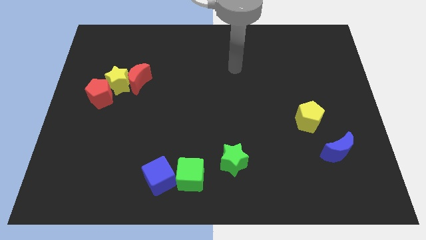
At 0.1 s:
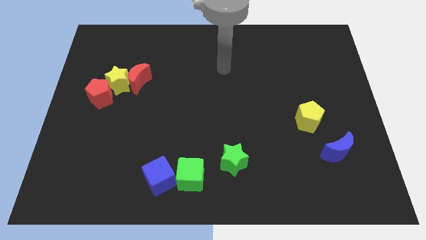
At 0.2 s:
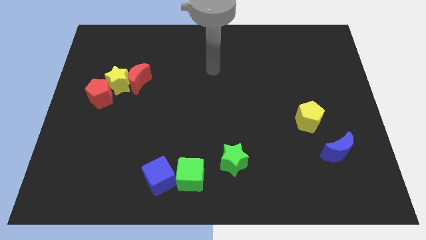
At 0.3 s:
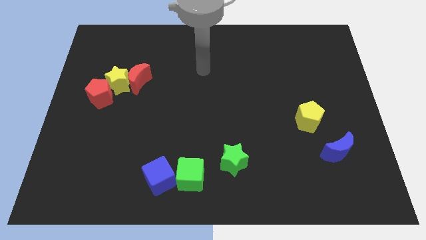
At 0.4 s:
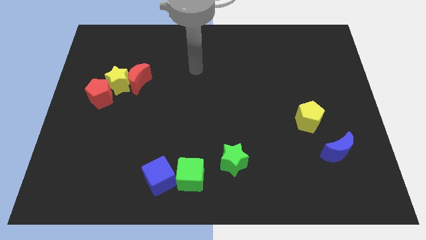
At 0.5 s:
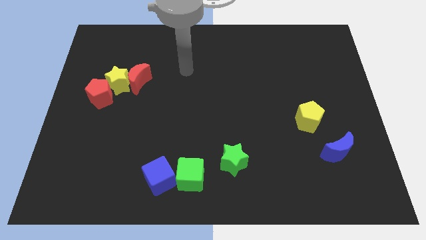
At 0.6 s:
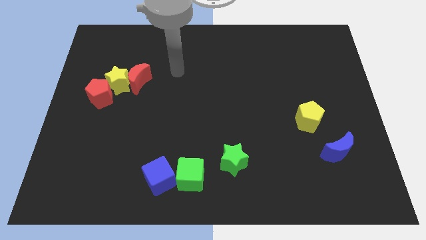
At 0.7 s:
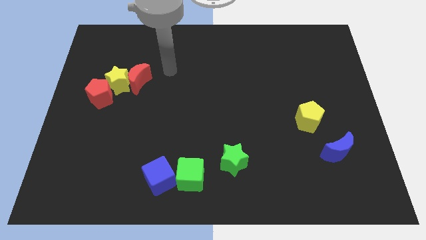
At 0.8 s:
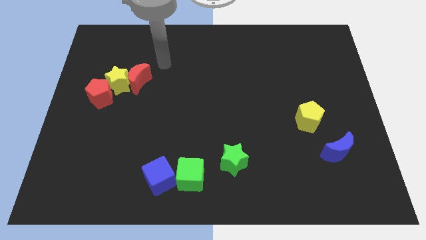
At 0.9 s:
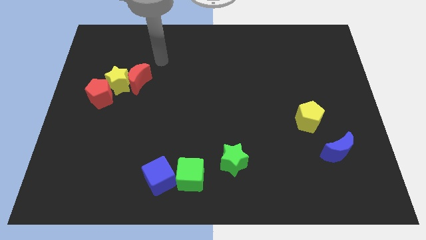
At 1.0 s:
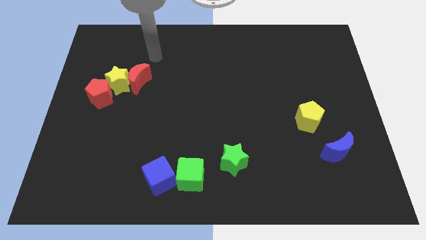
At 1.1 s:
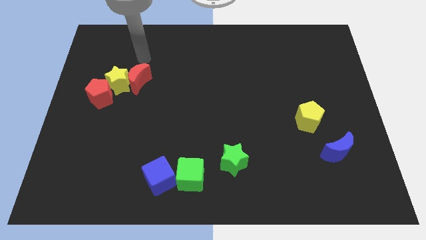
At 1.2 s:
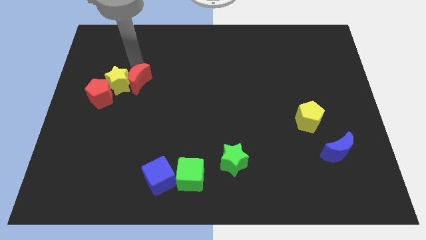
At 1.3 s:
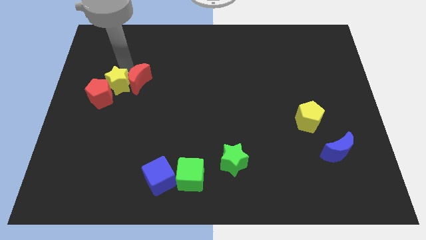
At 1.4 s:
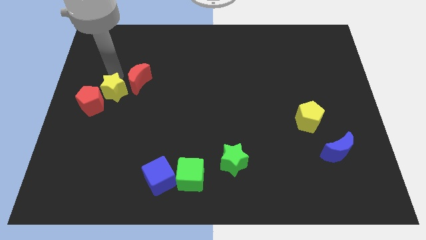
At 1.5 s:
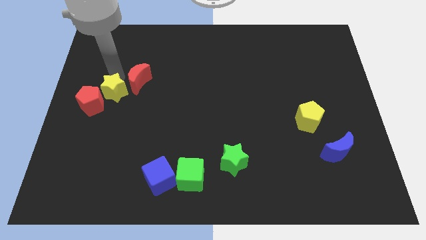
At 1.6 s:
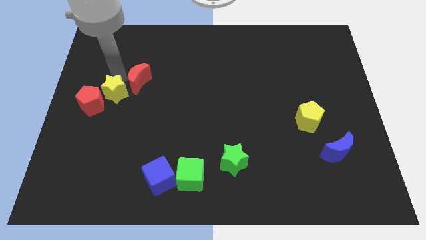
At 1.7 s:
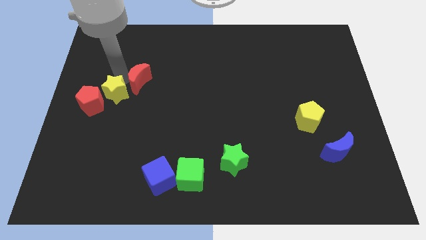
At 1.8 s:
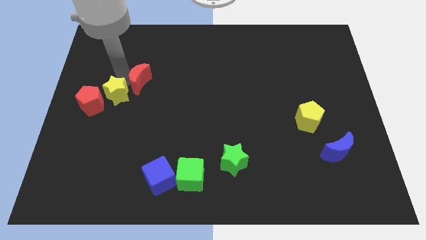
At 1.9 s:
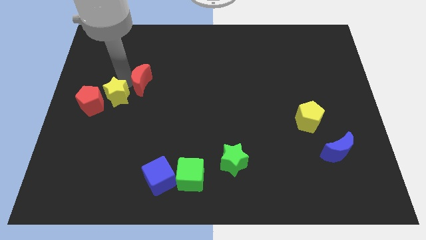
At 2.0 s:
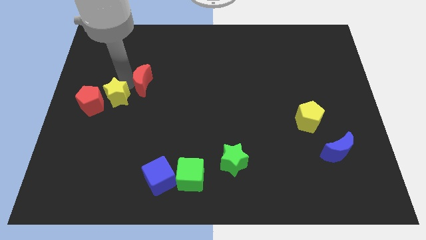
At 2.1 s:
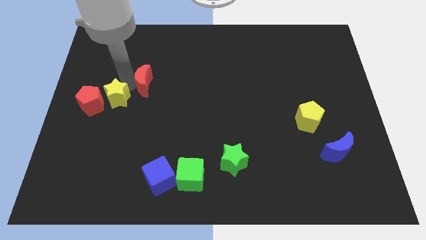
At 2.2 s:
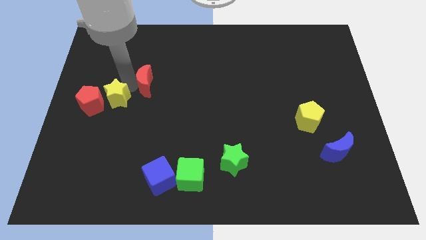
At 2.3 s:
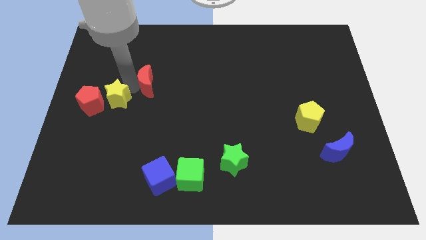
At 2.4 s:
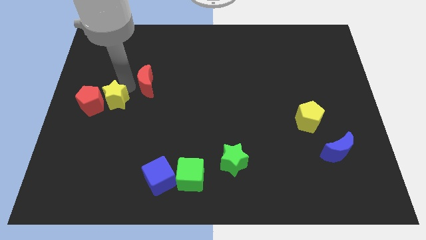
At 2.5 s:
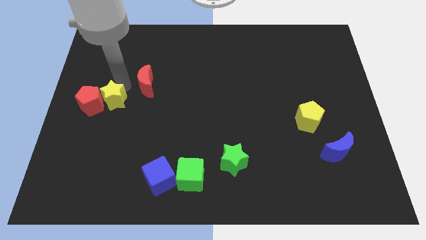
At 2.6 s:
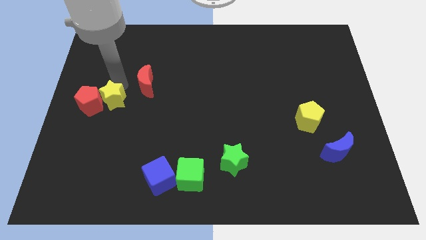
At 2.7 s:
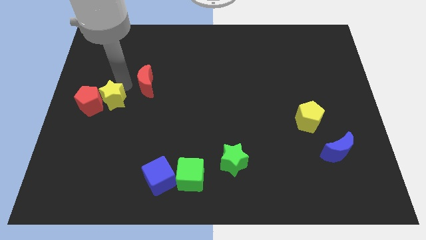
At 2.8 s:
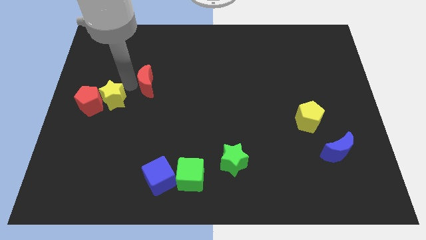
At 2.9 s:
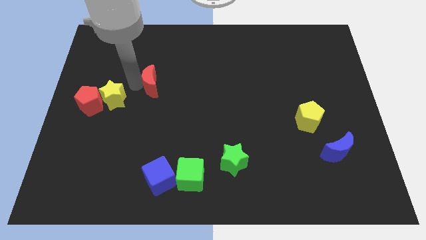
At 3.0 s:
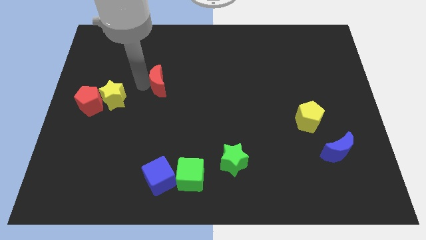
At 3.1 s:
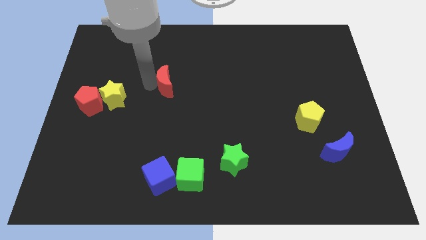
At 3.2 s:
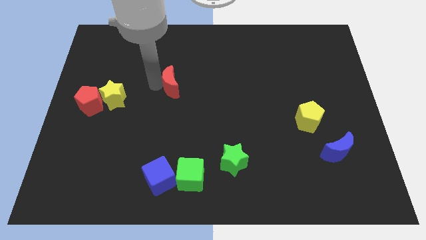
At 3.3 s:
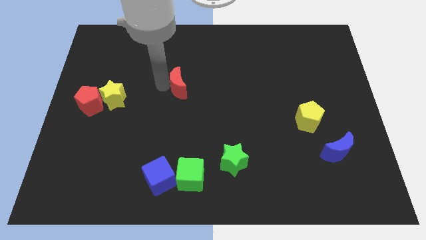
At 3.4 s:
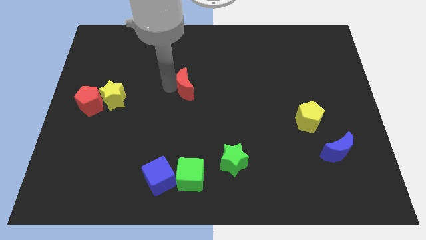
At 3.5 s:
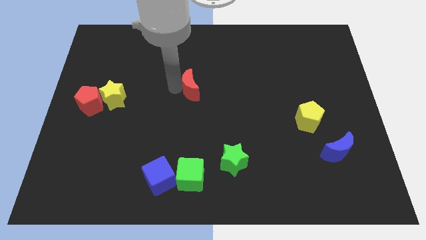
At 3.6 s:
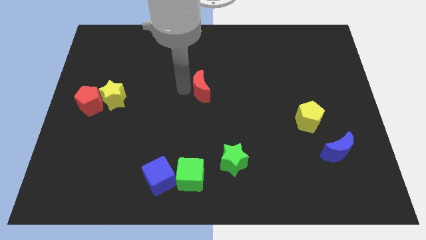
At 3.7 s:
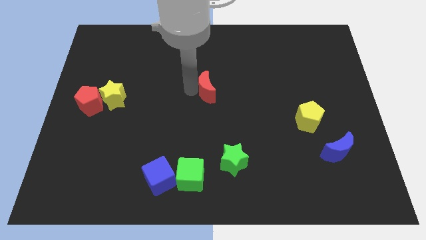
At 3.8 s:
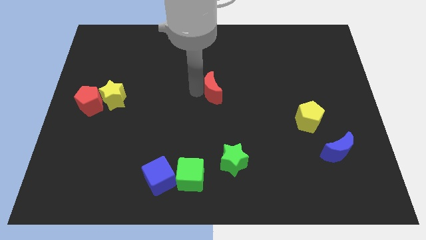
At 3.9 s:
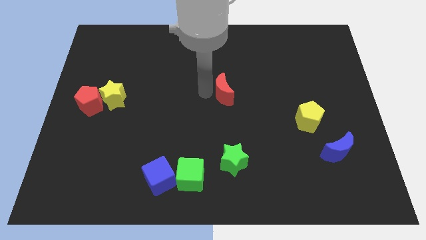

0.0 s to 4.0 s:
push the red moon right

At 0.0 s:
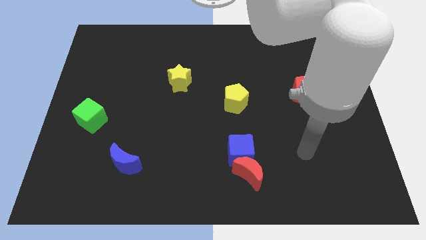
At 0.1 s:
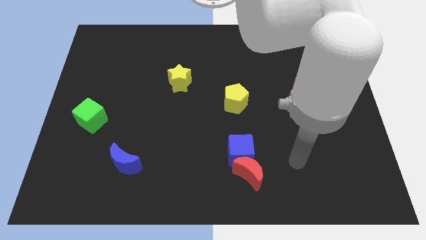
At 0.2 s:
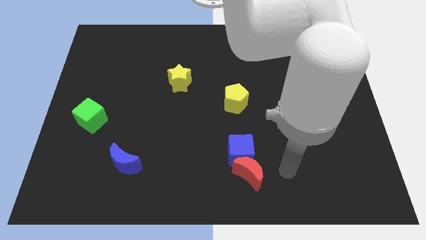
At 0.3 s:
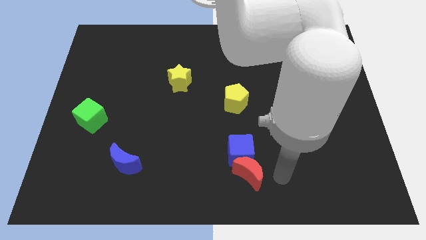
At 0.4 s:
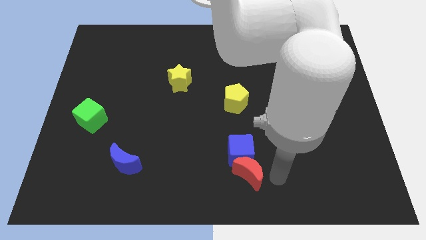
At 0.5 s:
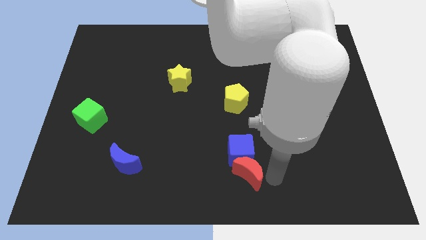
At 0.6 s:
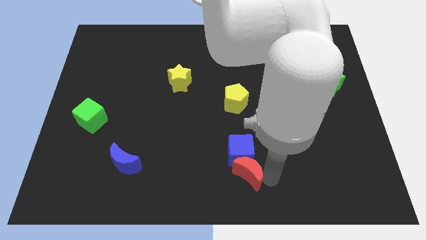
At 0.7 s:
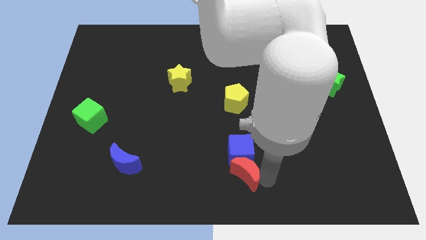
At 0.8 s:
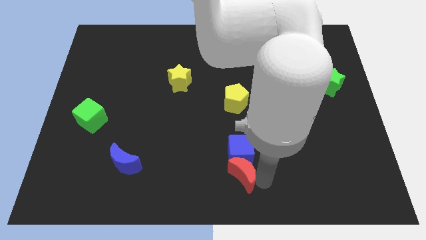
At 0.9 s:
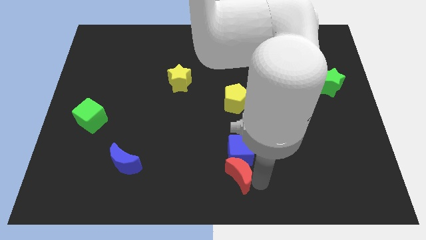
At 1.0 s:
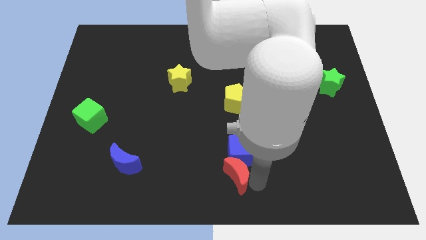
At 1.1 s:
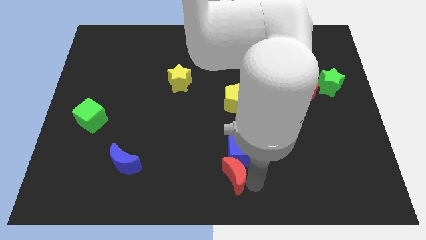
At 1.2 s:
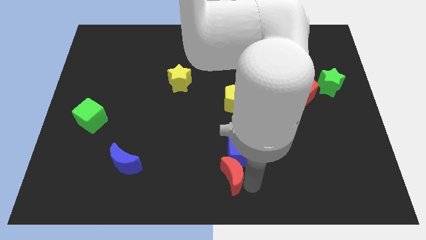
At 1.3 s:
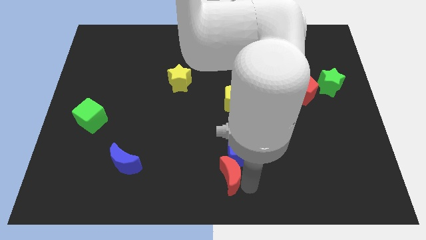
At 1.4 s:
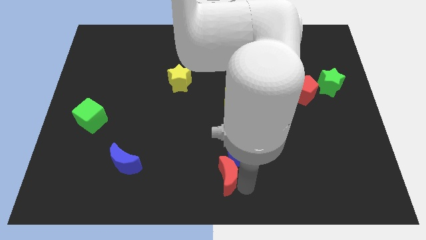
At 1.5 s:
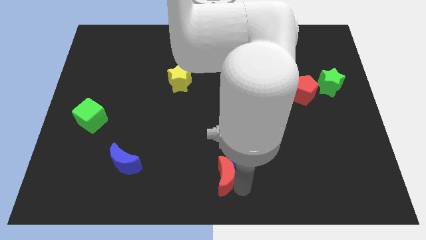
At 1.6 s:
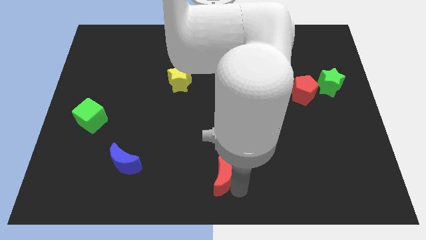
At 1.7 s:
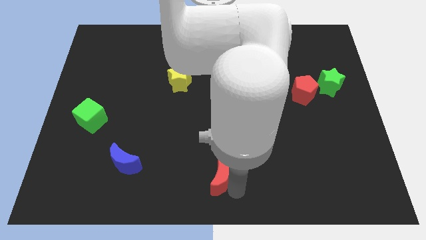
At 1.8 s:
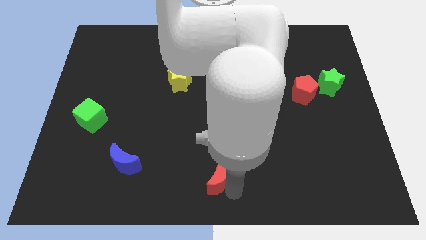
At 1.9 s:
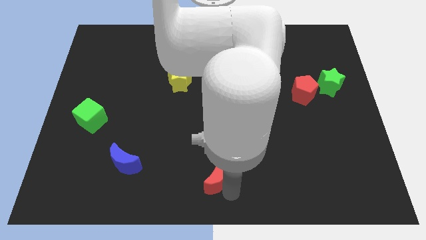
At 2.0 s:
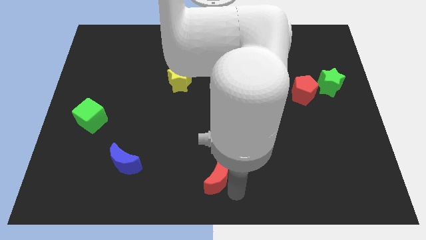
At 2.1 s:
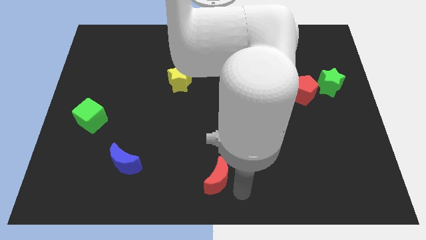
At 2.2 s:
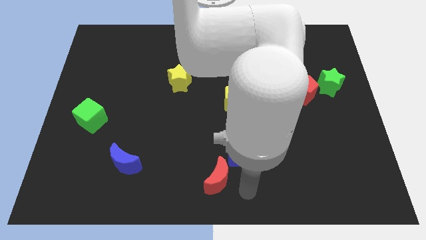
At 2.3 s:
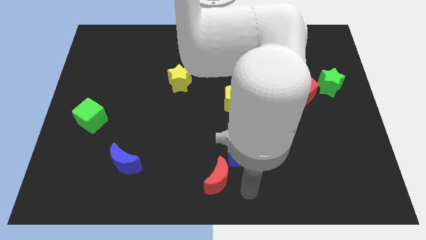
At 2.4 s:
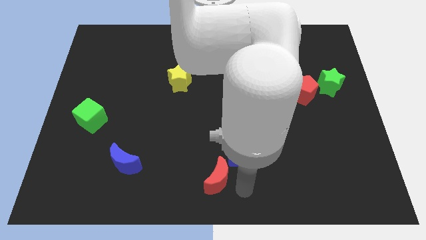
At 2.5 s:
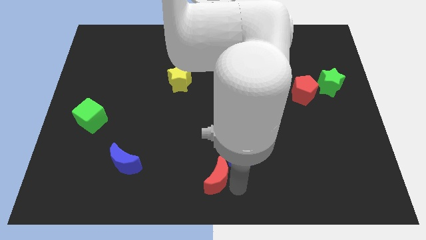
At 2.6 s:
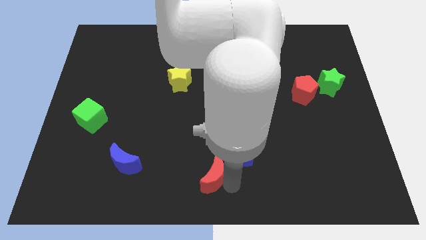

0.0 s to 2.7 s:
slightly push the red moon left

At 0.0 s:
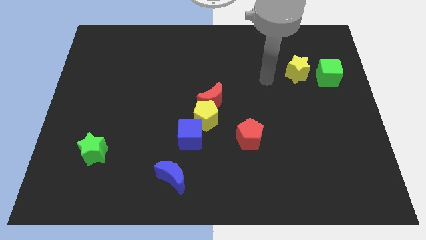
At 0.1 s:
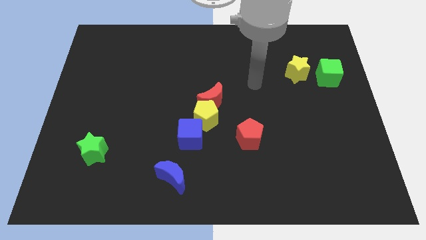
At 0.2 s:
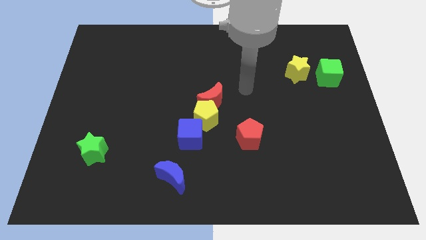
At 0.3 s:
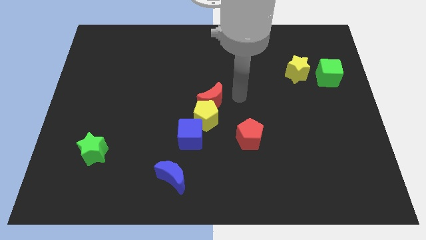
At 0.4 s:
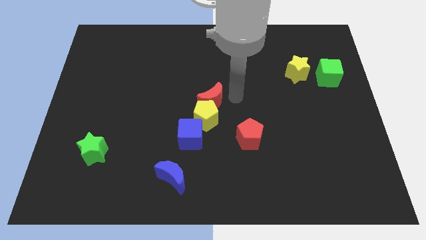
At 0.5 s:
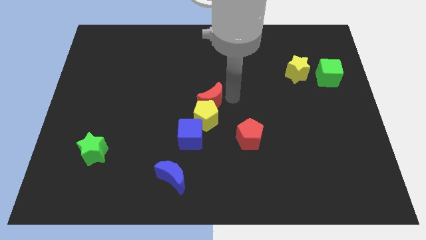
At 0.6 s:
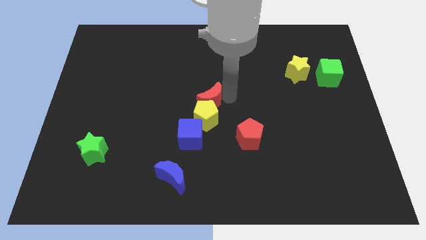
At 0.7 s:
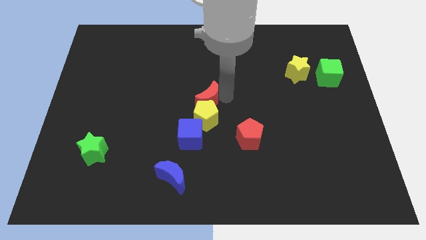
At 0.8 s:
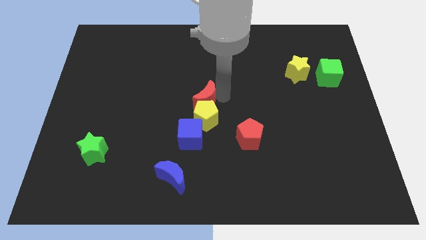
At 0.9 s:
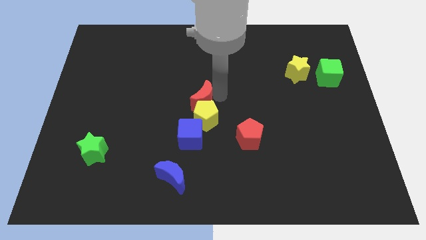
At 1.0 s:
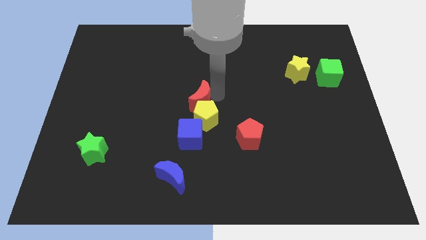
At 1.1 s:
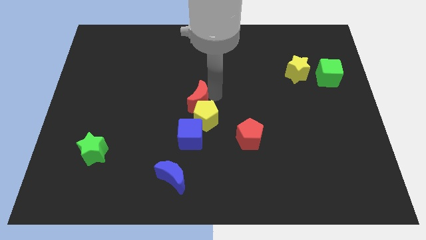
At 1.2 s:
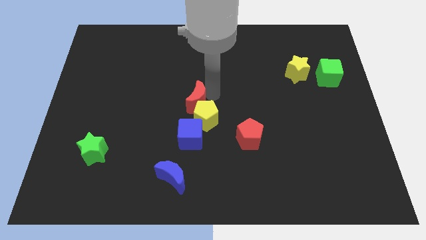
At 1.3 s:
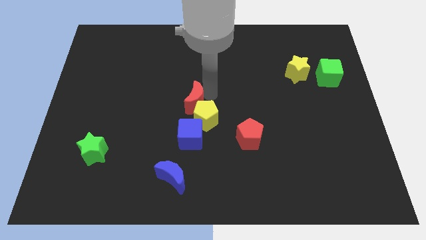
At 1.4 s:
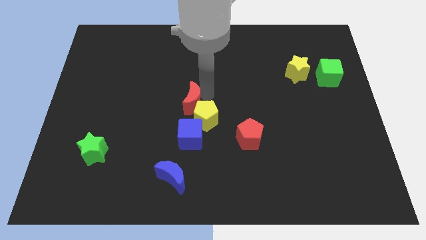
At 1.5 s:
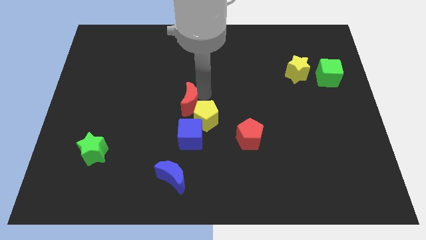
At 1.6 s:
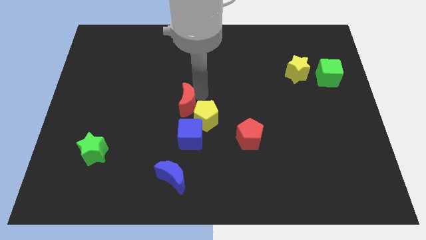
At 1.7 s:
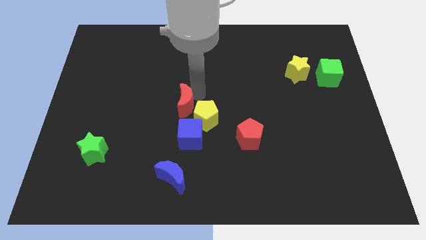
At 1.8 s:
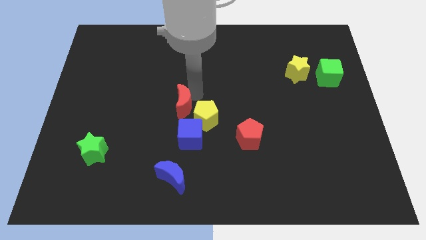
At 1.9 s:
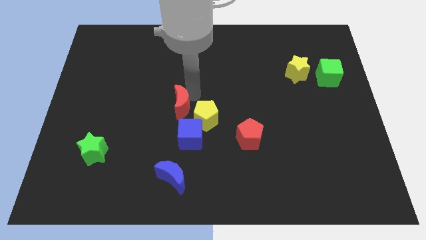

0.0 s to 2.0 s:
slide the red moon somewhat left

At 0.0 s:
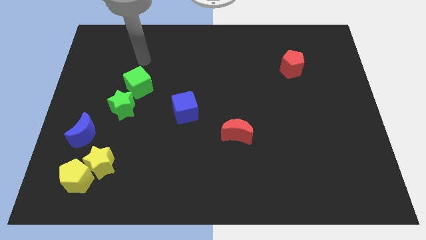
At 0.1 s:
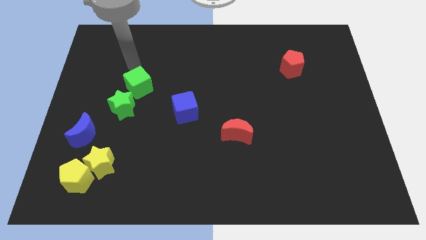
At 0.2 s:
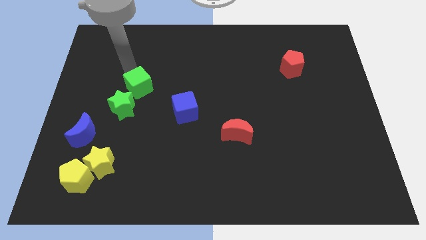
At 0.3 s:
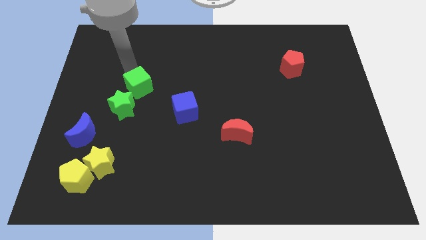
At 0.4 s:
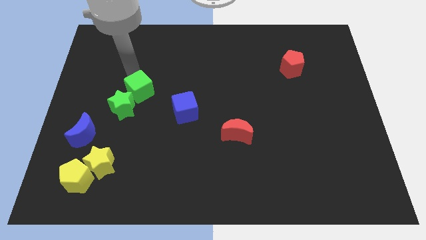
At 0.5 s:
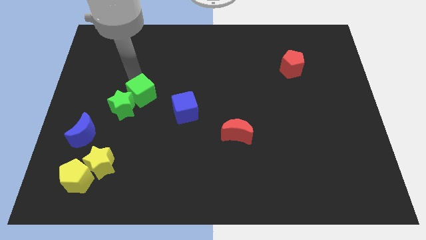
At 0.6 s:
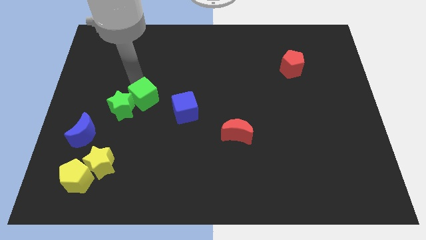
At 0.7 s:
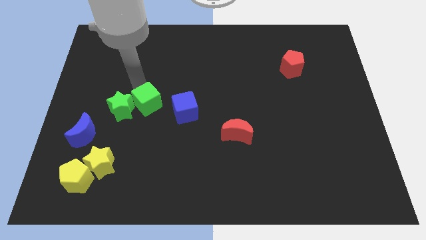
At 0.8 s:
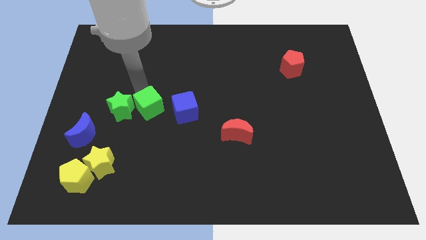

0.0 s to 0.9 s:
slide the green cube slightly downwards and to the right
